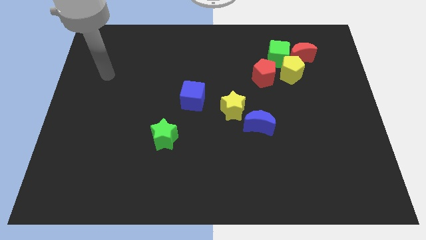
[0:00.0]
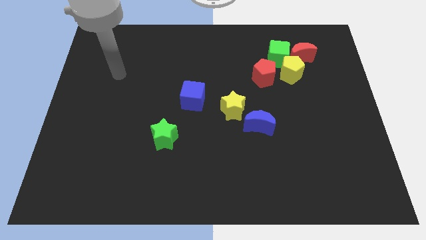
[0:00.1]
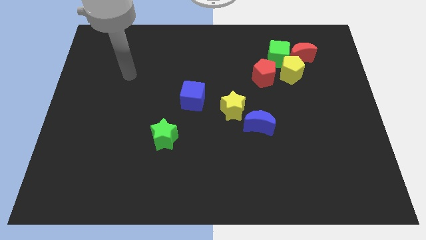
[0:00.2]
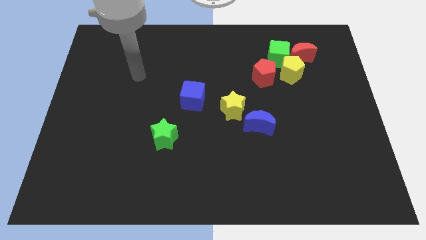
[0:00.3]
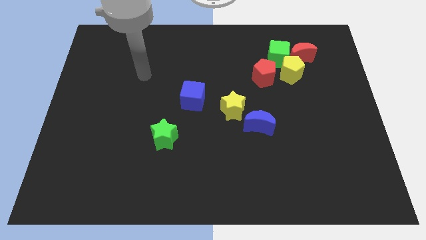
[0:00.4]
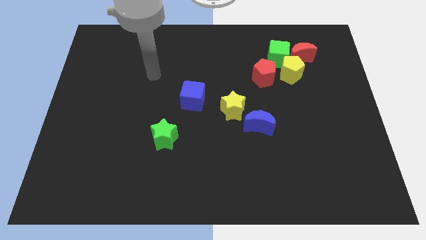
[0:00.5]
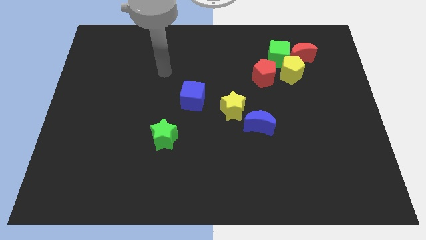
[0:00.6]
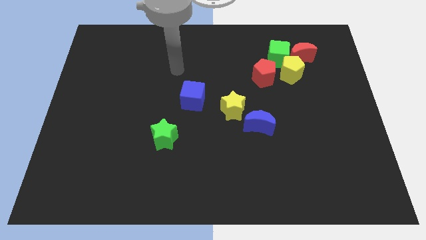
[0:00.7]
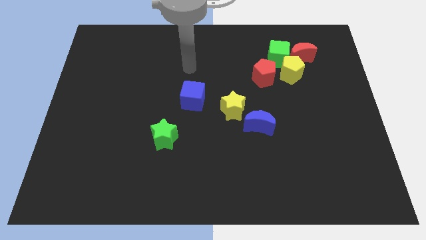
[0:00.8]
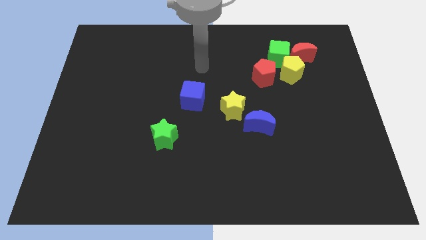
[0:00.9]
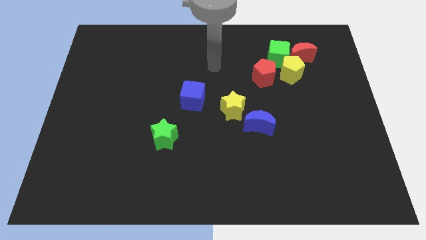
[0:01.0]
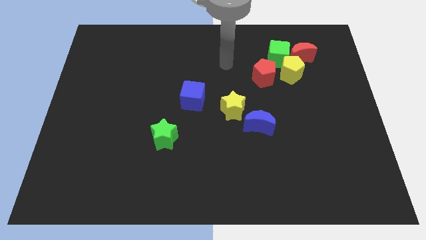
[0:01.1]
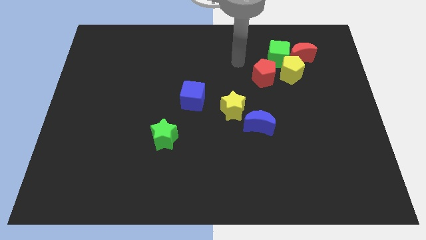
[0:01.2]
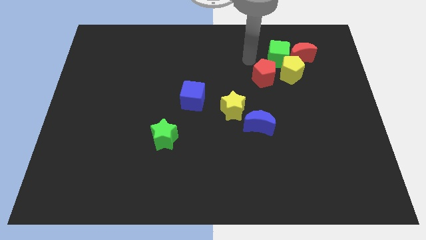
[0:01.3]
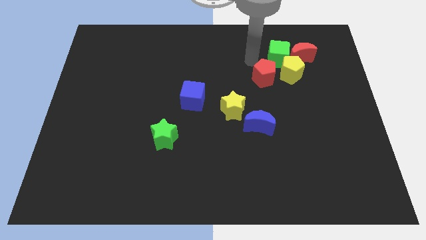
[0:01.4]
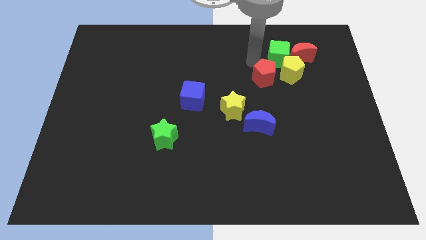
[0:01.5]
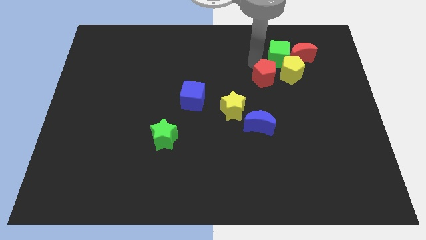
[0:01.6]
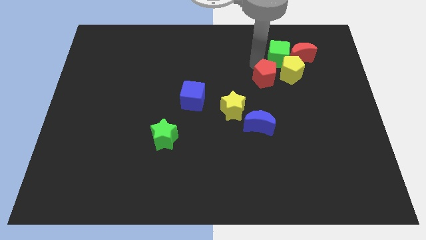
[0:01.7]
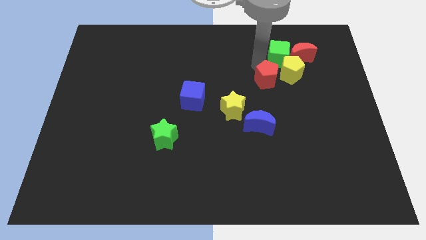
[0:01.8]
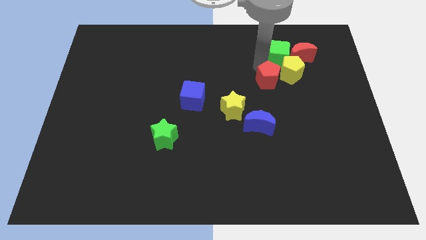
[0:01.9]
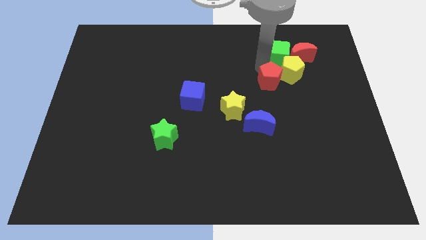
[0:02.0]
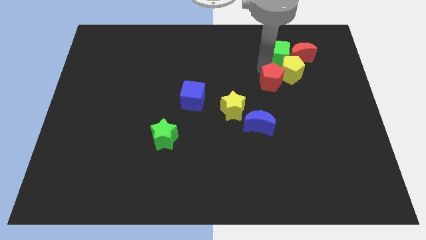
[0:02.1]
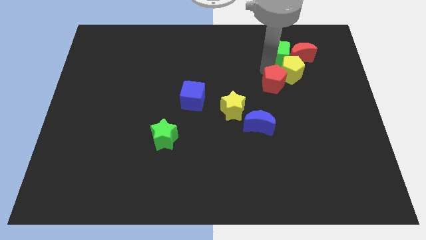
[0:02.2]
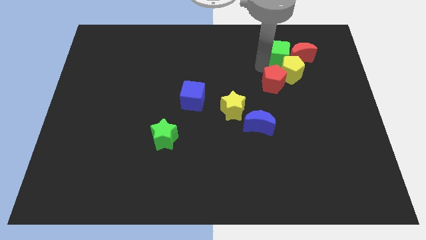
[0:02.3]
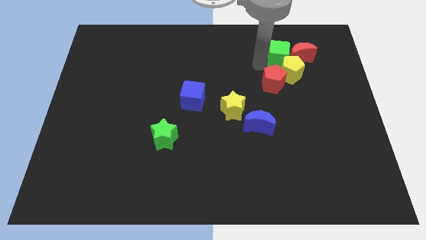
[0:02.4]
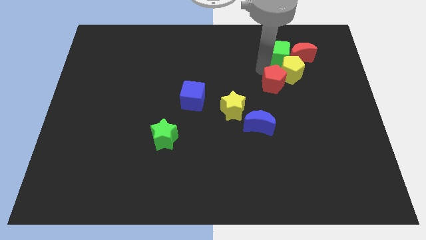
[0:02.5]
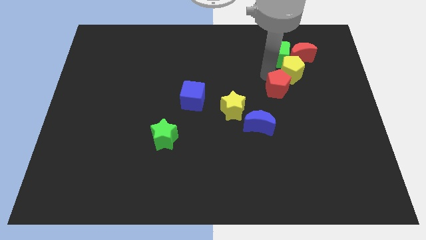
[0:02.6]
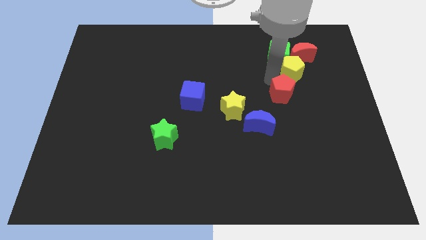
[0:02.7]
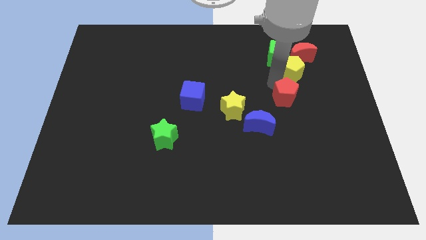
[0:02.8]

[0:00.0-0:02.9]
move the red pentagon downwards and then to the right somewhat

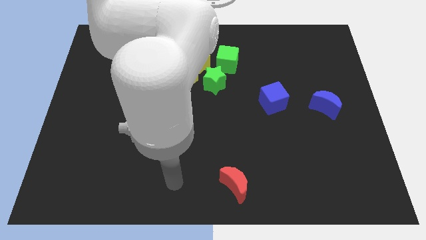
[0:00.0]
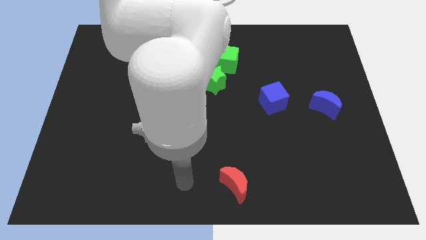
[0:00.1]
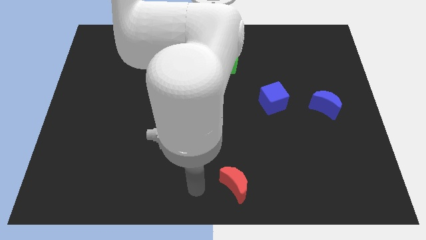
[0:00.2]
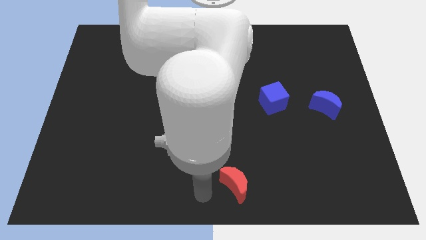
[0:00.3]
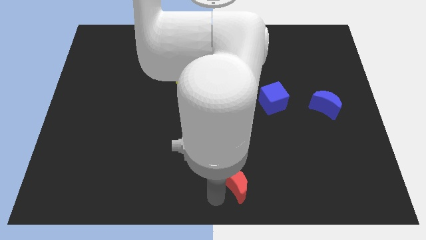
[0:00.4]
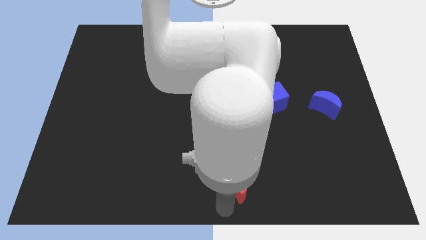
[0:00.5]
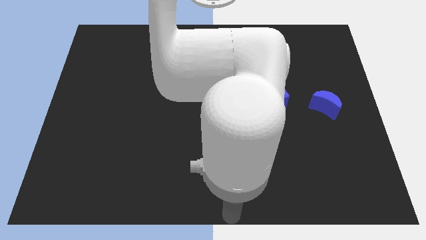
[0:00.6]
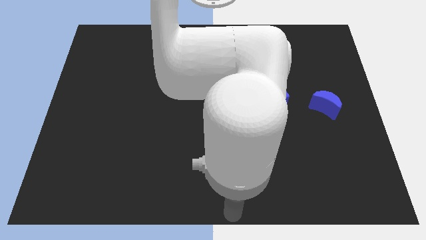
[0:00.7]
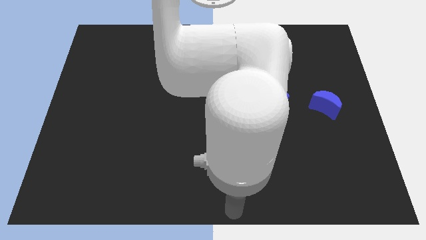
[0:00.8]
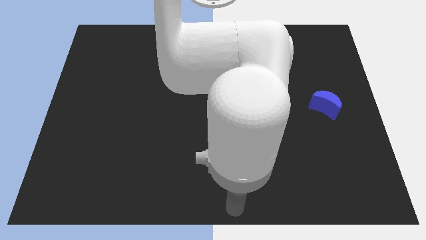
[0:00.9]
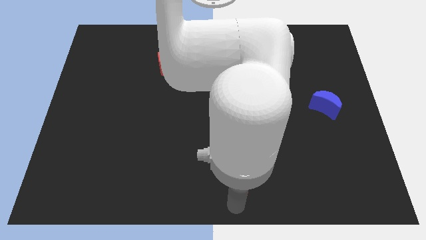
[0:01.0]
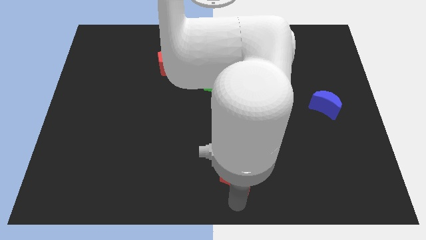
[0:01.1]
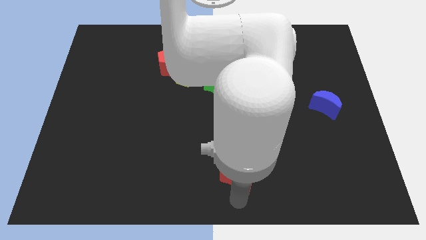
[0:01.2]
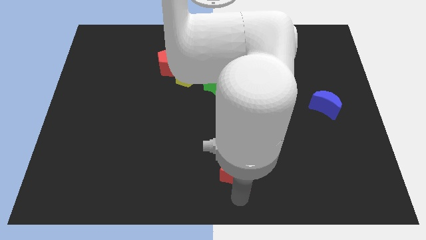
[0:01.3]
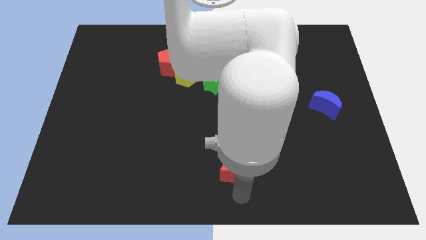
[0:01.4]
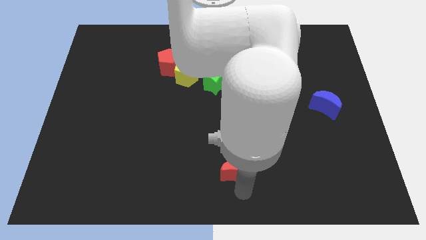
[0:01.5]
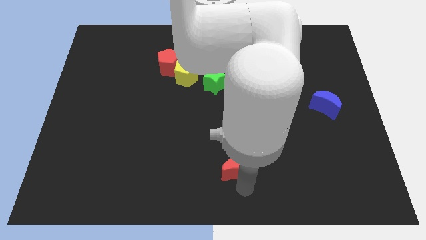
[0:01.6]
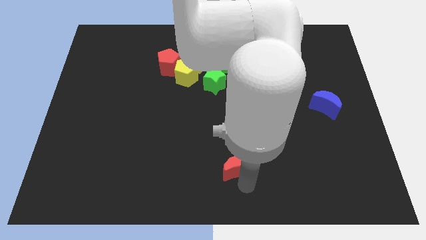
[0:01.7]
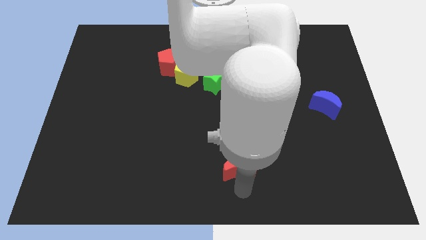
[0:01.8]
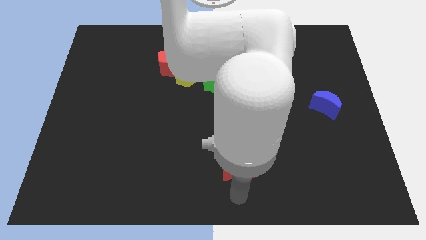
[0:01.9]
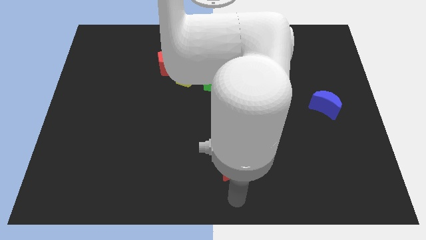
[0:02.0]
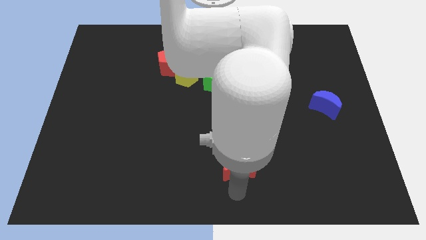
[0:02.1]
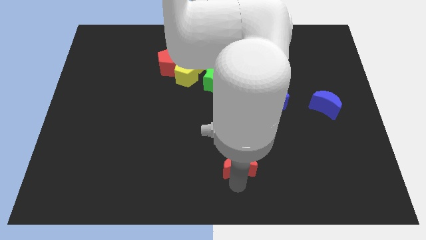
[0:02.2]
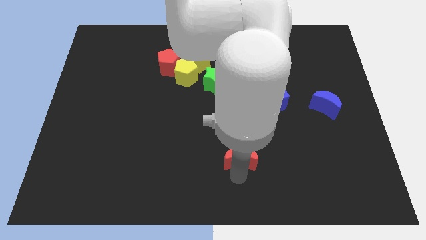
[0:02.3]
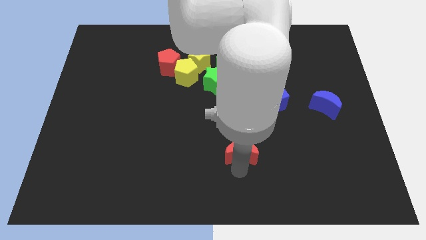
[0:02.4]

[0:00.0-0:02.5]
slightly move the red moon upwards

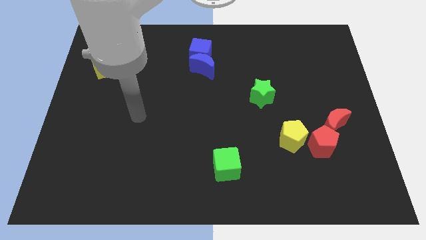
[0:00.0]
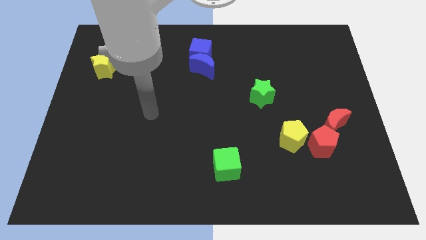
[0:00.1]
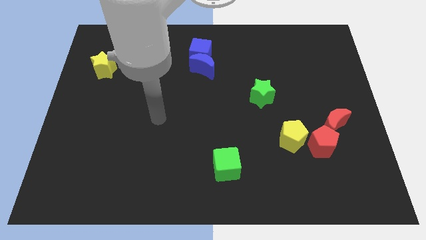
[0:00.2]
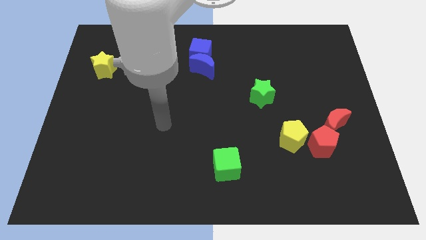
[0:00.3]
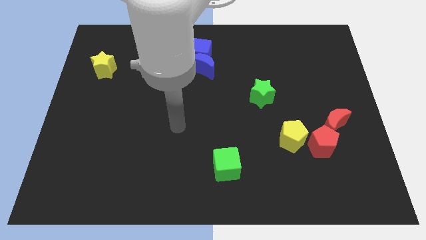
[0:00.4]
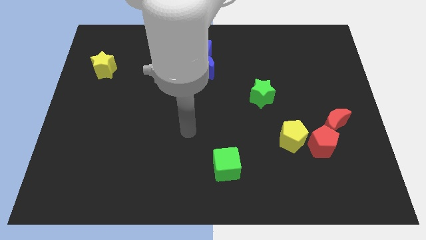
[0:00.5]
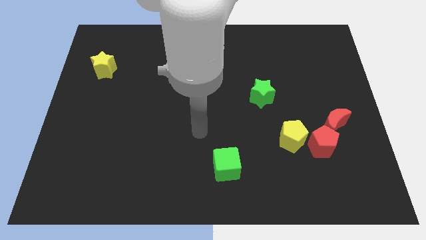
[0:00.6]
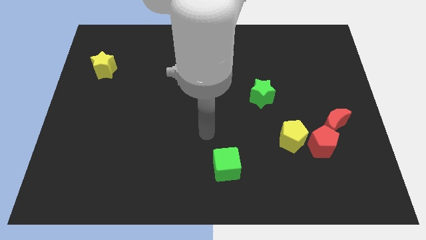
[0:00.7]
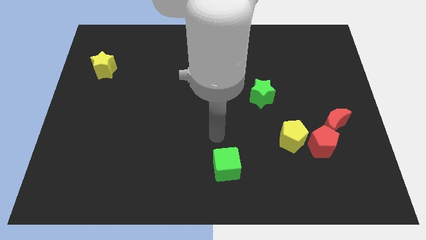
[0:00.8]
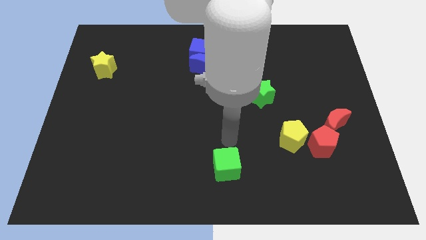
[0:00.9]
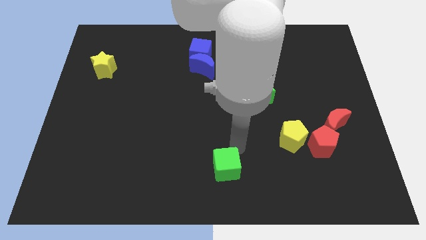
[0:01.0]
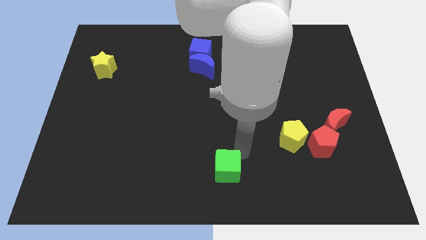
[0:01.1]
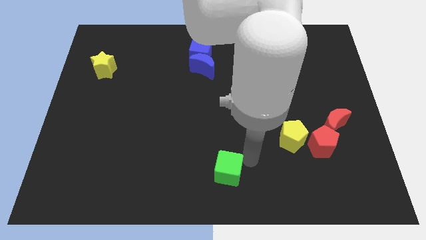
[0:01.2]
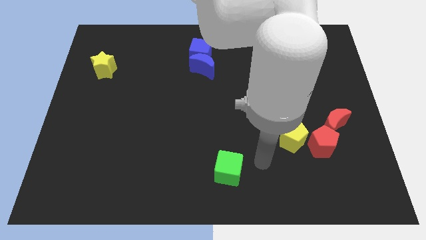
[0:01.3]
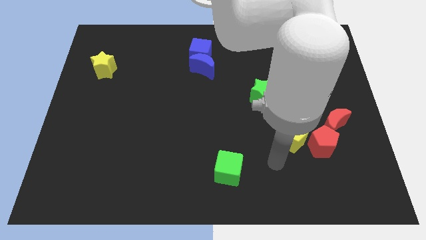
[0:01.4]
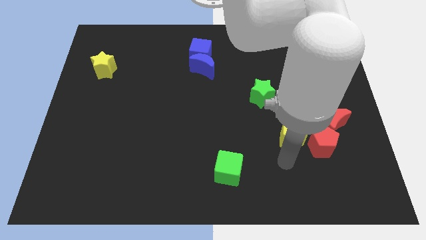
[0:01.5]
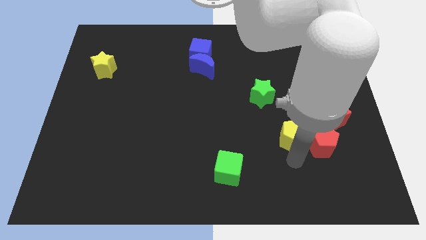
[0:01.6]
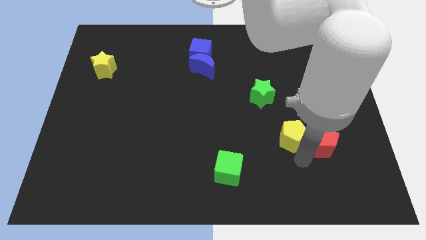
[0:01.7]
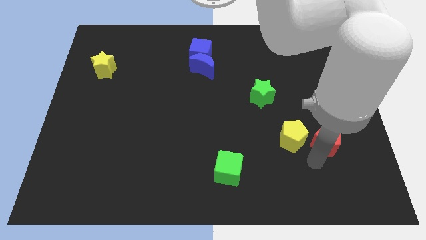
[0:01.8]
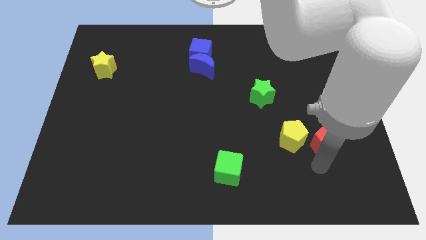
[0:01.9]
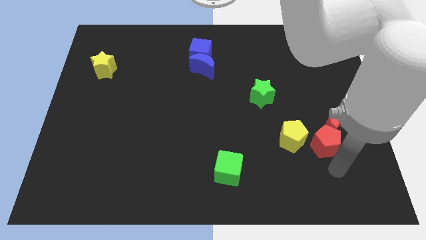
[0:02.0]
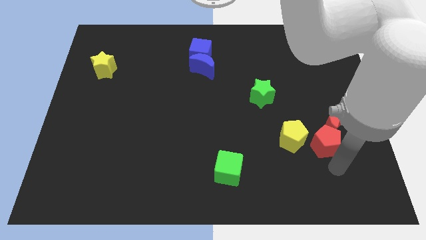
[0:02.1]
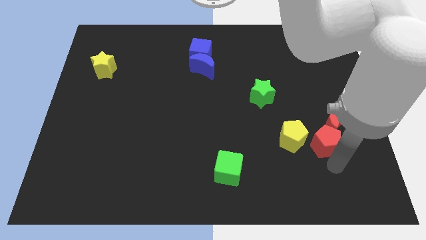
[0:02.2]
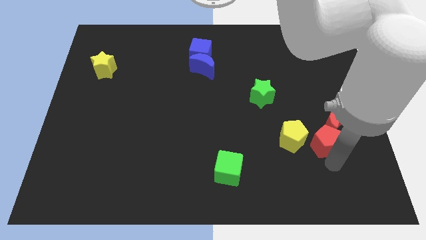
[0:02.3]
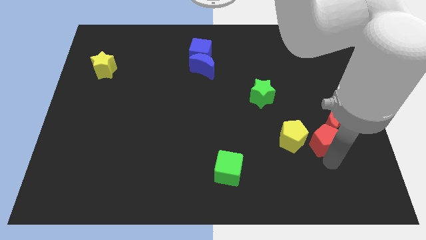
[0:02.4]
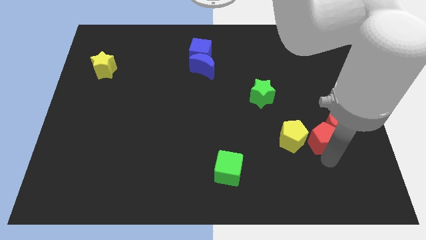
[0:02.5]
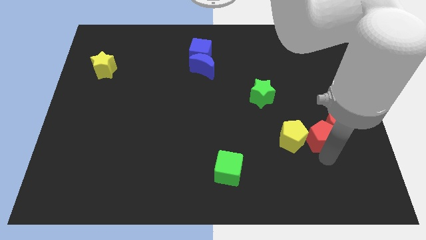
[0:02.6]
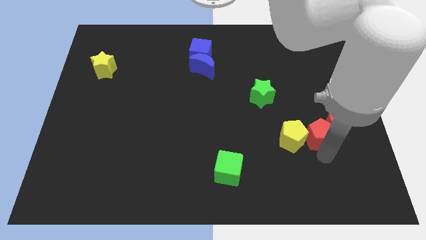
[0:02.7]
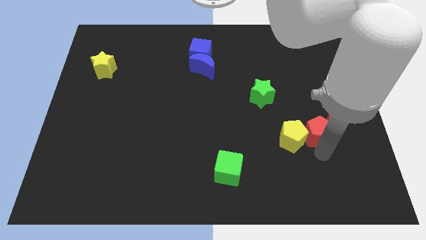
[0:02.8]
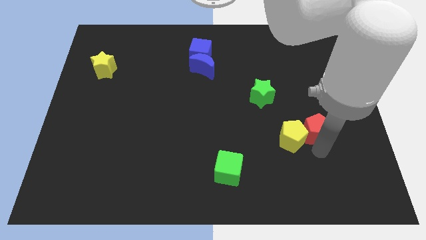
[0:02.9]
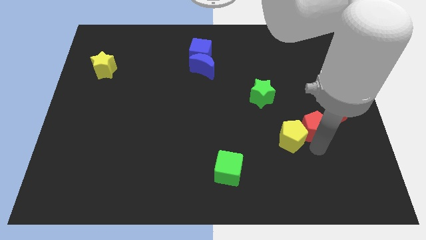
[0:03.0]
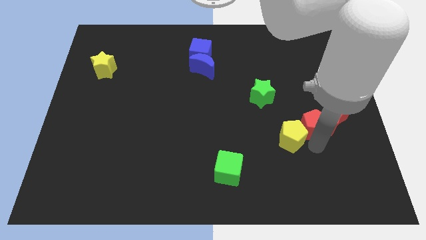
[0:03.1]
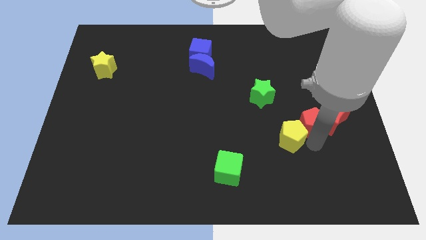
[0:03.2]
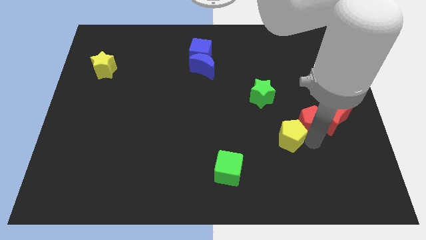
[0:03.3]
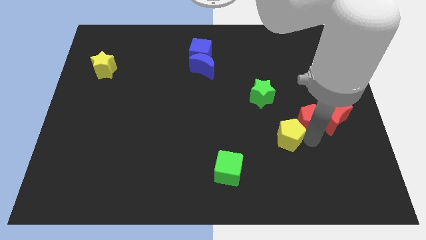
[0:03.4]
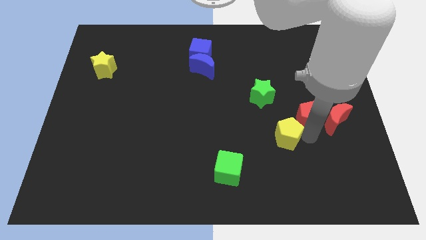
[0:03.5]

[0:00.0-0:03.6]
slide the red pentagon somewhat upwards
